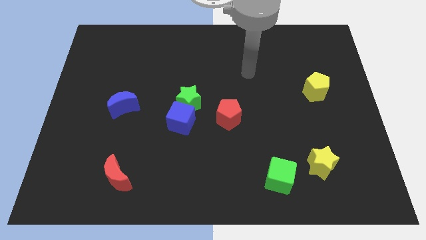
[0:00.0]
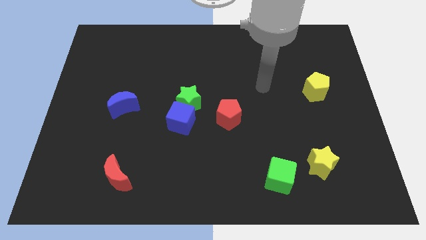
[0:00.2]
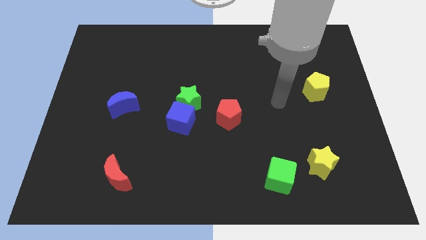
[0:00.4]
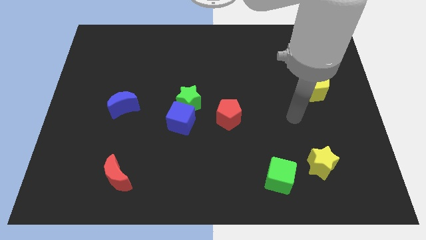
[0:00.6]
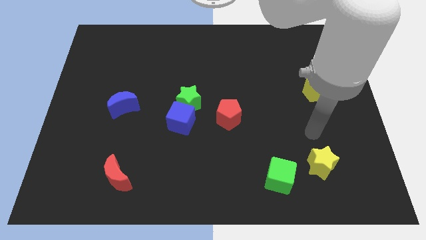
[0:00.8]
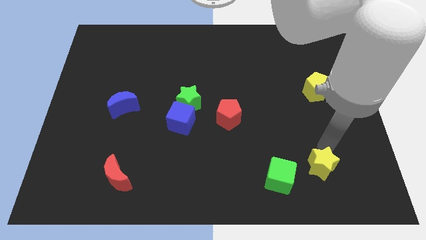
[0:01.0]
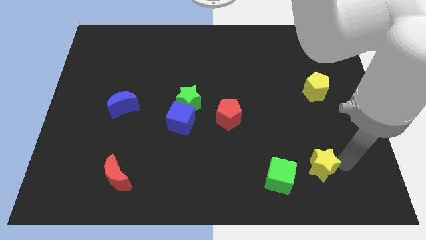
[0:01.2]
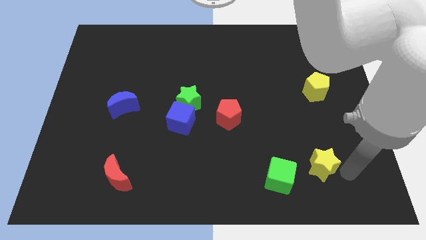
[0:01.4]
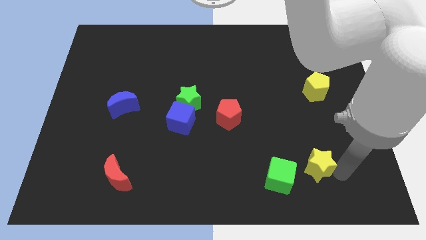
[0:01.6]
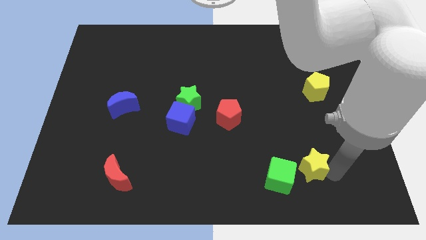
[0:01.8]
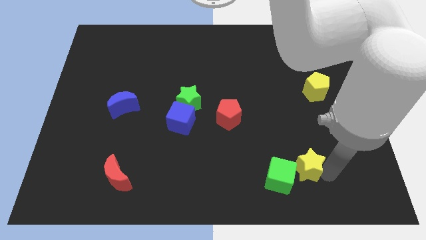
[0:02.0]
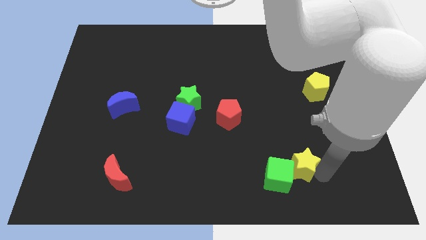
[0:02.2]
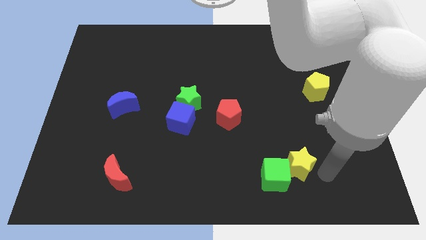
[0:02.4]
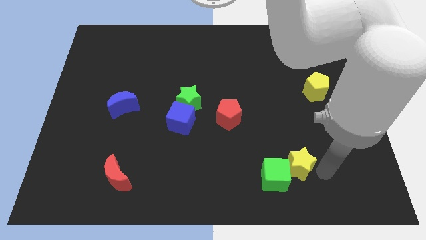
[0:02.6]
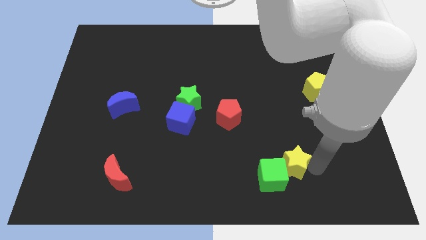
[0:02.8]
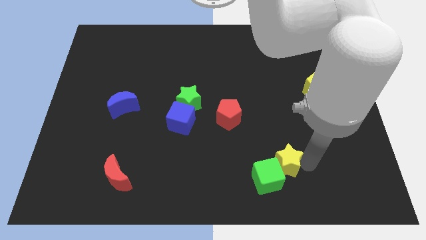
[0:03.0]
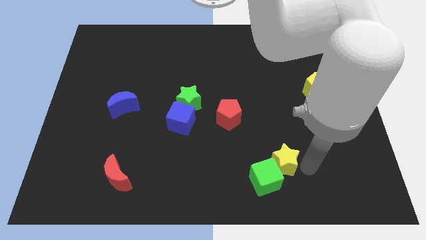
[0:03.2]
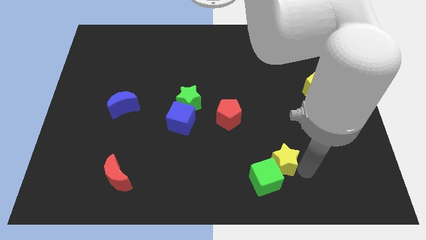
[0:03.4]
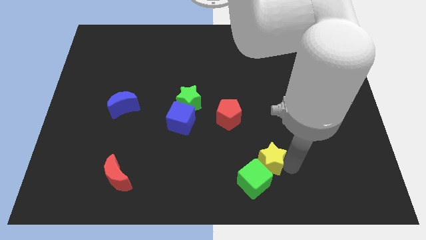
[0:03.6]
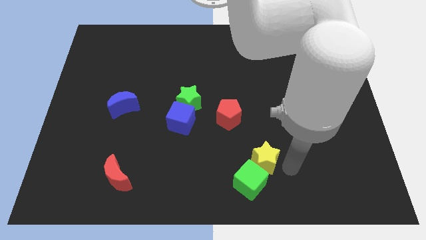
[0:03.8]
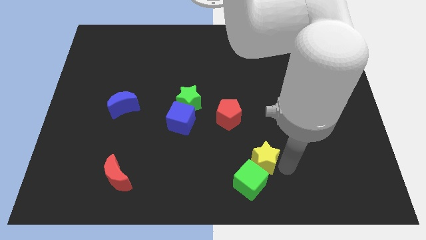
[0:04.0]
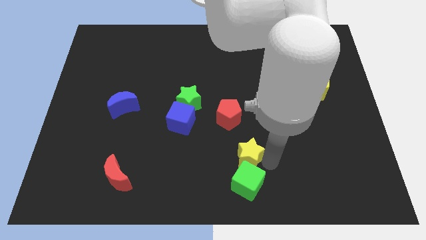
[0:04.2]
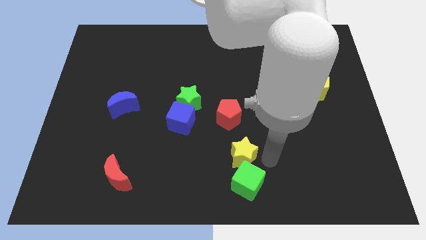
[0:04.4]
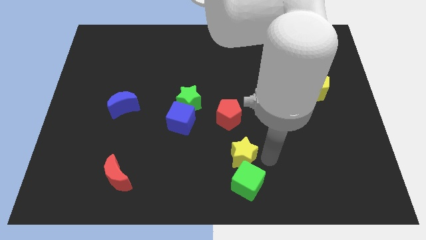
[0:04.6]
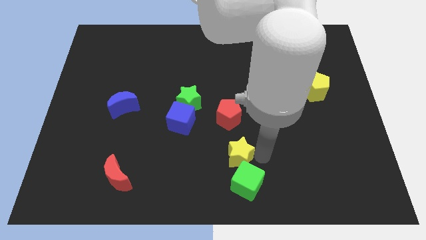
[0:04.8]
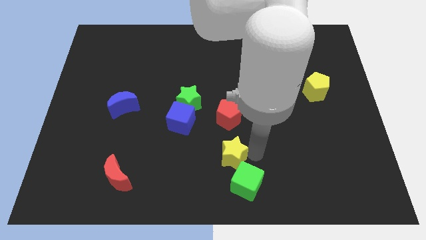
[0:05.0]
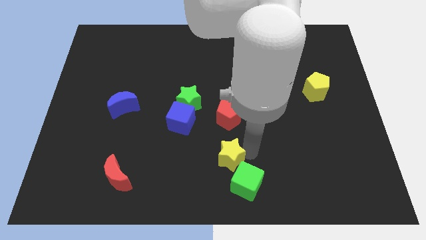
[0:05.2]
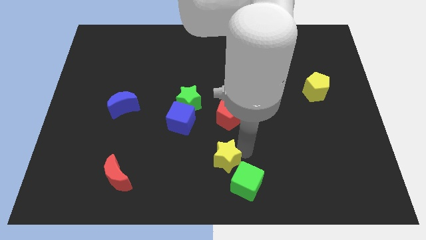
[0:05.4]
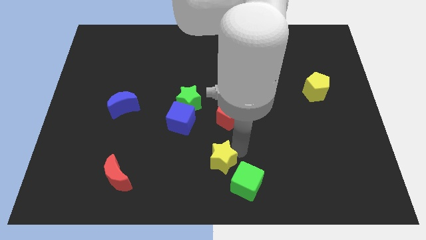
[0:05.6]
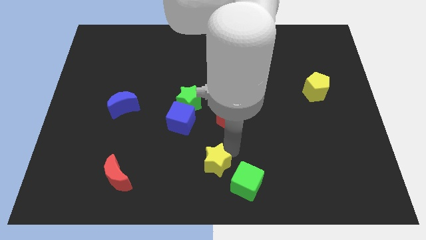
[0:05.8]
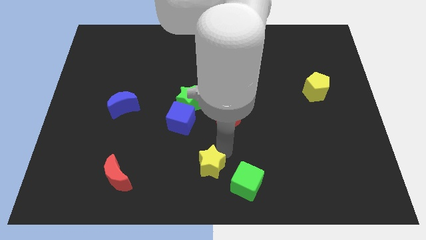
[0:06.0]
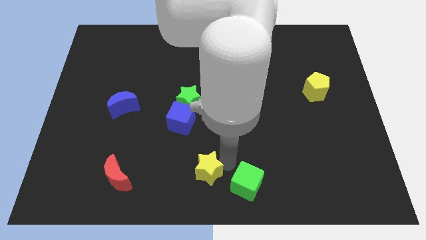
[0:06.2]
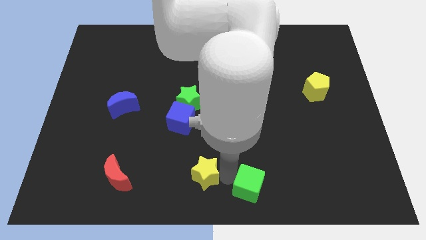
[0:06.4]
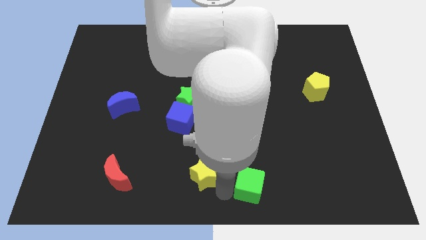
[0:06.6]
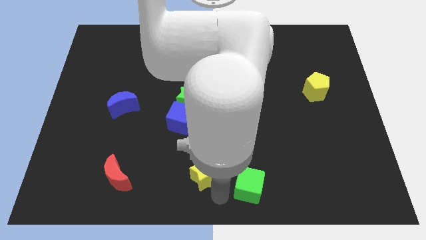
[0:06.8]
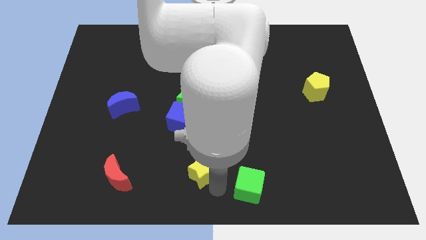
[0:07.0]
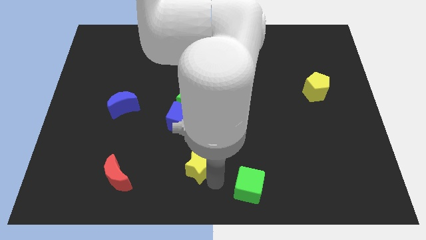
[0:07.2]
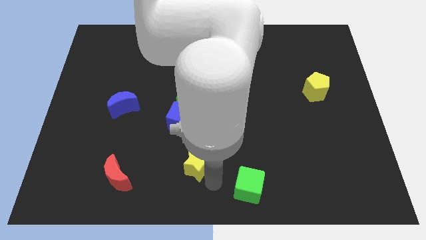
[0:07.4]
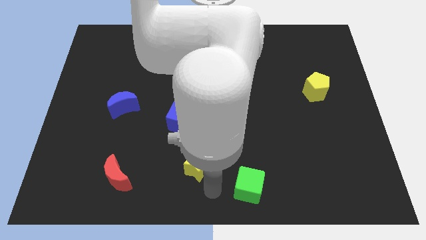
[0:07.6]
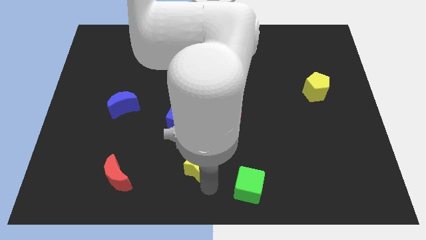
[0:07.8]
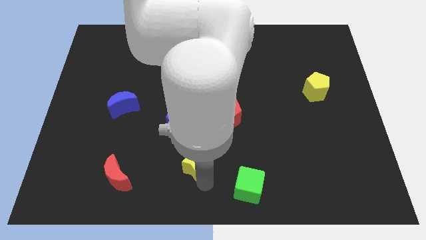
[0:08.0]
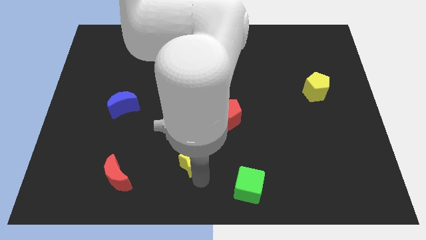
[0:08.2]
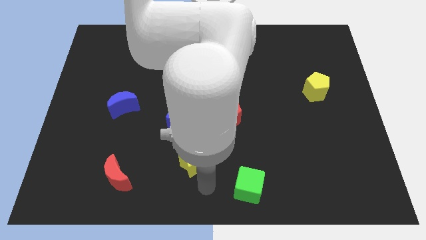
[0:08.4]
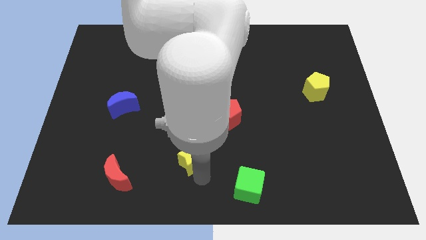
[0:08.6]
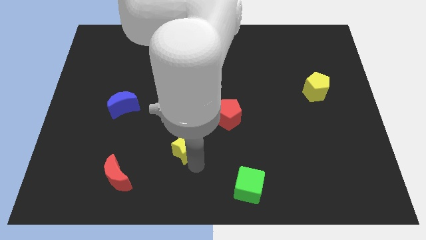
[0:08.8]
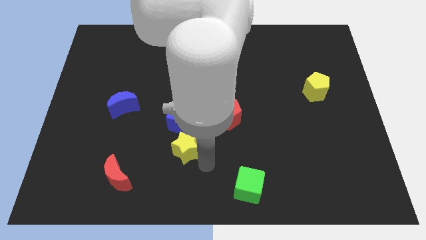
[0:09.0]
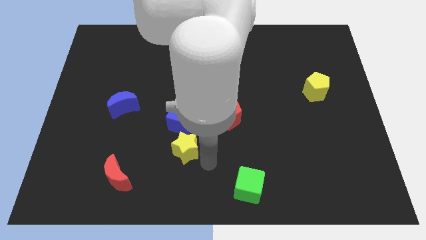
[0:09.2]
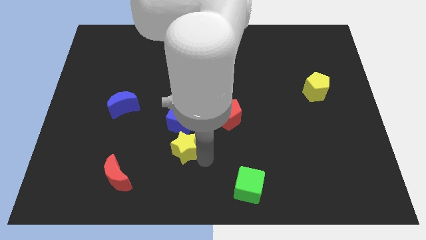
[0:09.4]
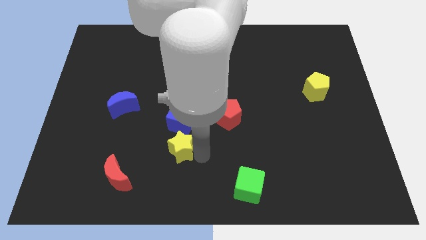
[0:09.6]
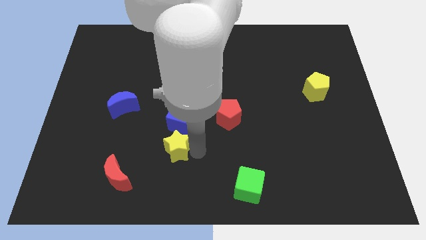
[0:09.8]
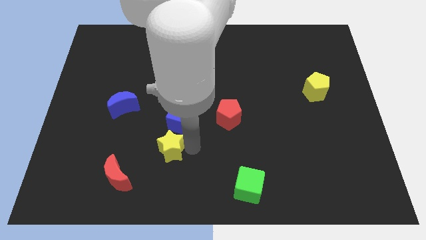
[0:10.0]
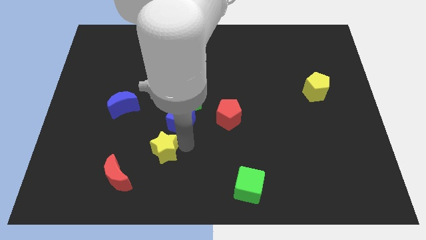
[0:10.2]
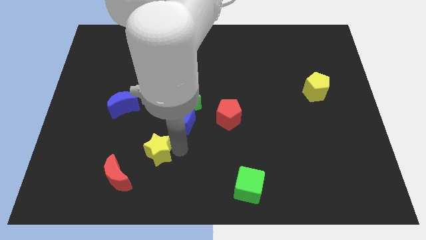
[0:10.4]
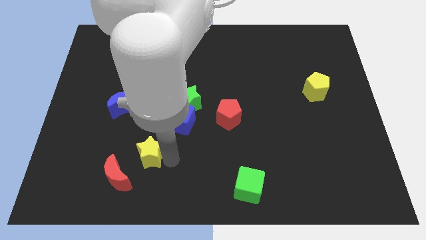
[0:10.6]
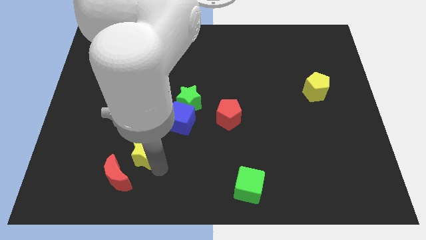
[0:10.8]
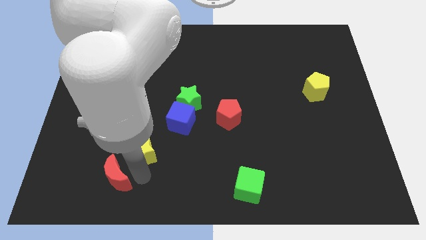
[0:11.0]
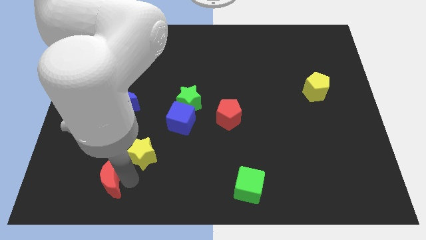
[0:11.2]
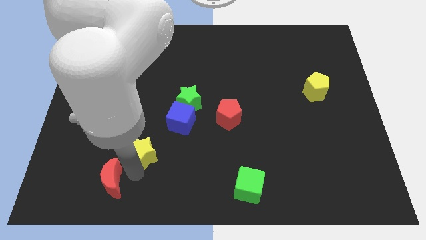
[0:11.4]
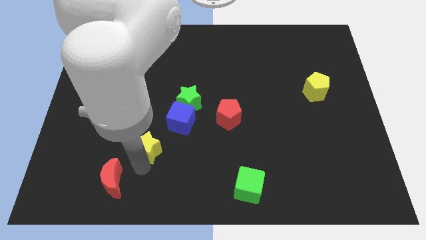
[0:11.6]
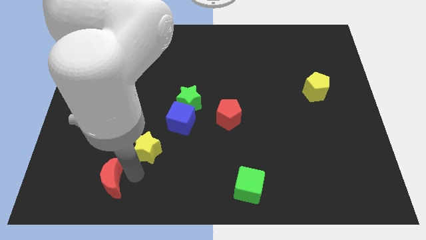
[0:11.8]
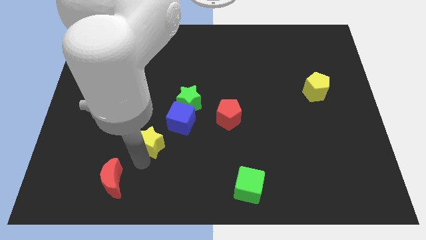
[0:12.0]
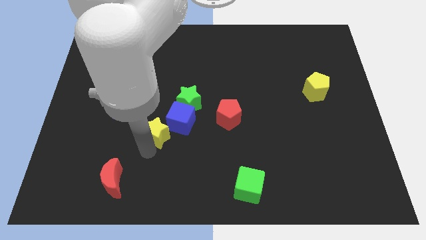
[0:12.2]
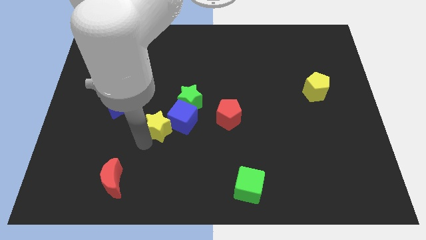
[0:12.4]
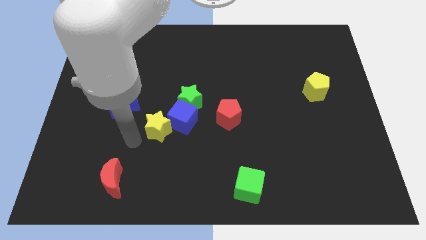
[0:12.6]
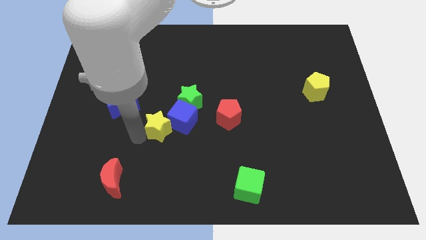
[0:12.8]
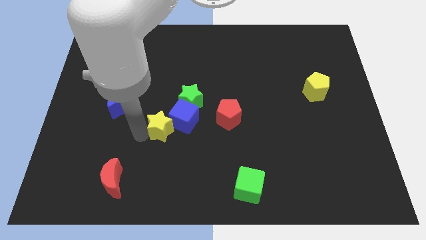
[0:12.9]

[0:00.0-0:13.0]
slide the yellow star to the left side of the red pentagon

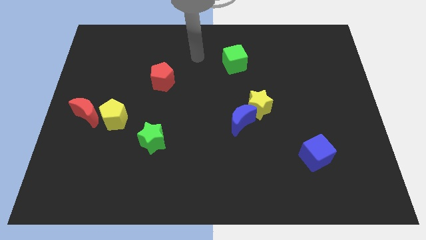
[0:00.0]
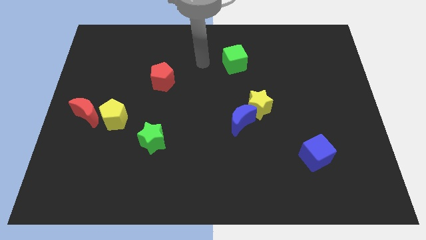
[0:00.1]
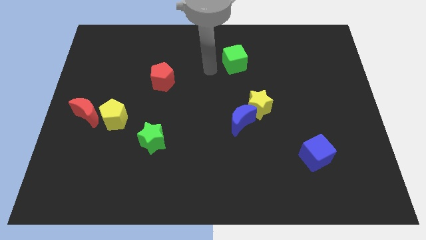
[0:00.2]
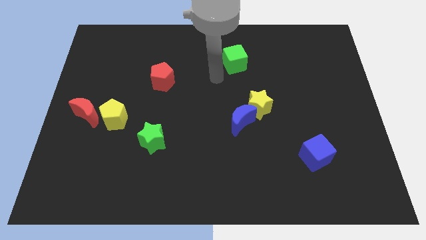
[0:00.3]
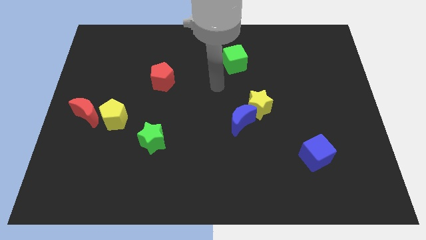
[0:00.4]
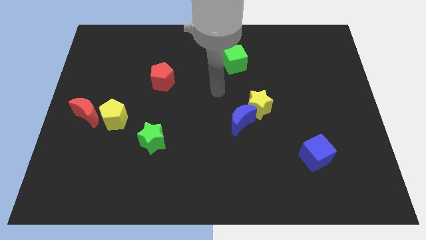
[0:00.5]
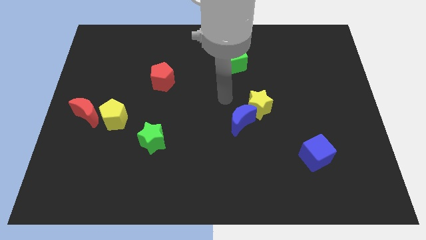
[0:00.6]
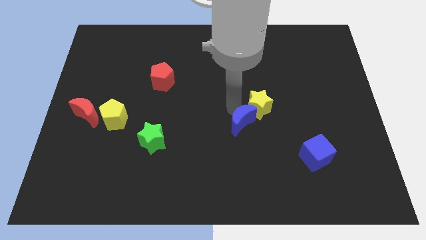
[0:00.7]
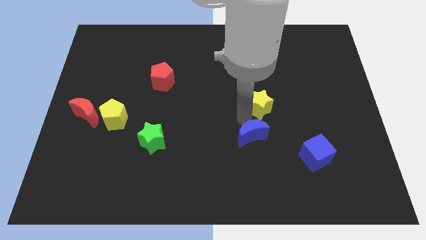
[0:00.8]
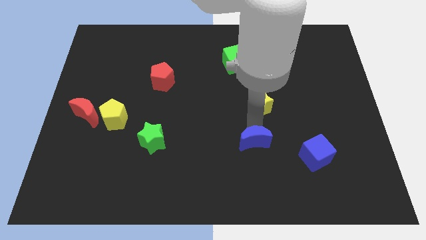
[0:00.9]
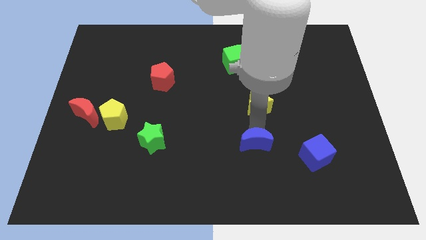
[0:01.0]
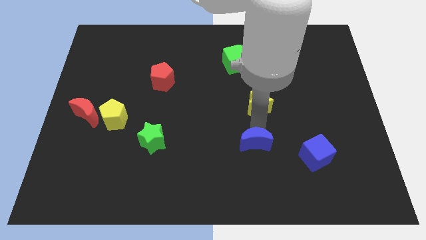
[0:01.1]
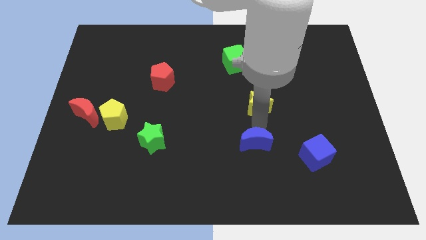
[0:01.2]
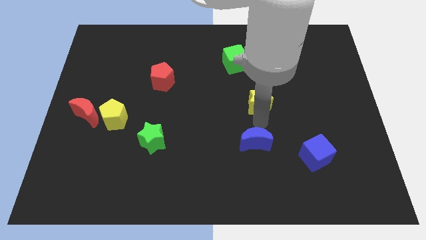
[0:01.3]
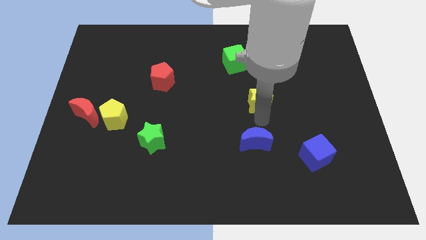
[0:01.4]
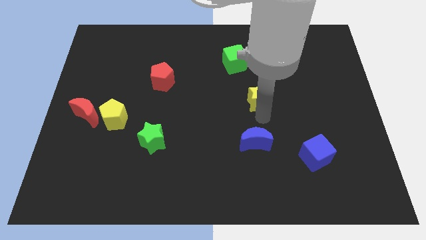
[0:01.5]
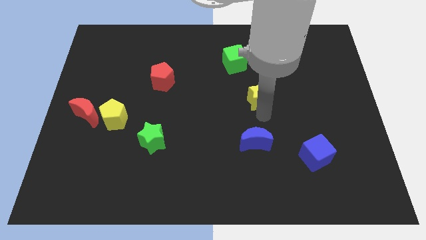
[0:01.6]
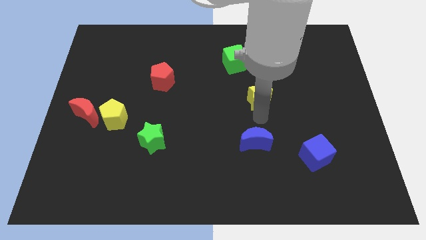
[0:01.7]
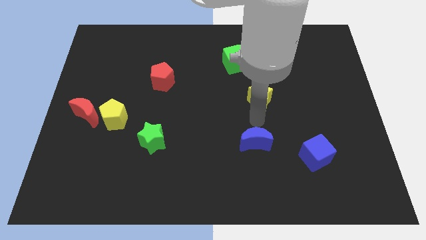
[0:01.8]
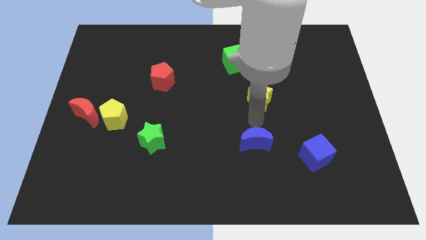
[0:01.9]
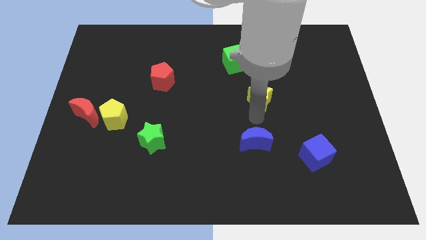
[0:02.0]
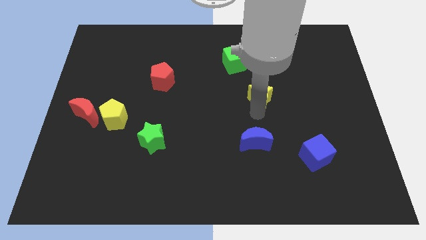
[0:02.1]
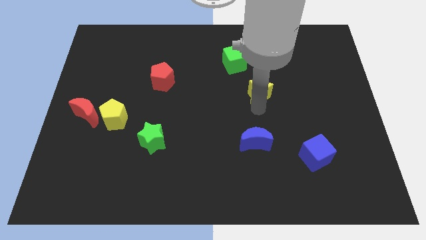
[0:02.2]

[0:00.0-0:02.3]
push the yellow star to the bottom right side of the green cube
